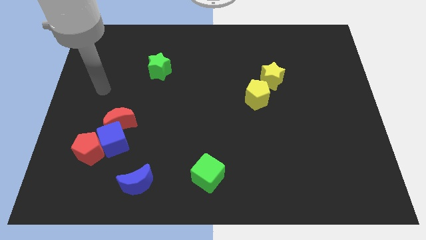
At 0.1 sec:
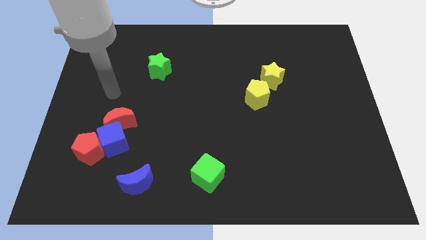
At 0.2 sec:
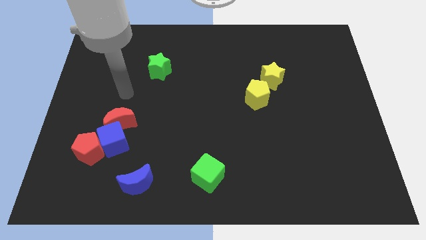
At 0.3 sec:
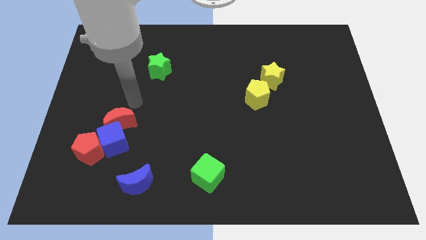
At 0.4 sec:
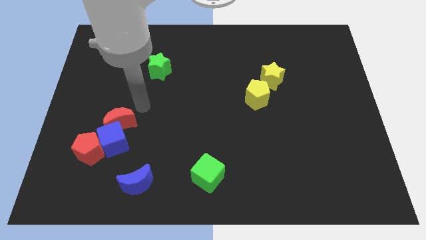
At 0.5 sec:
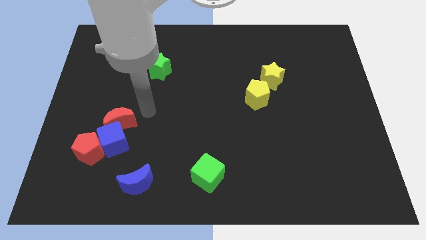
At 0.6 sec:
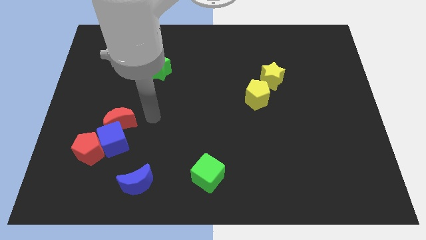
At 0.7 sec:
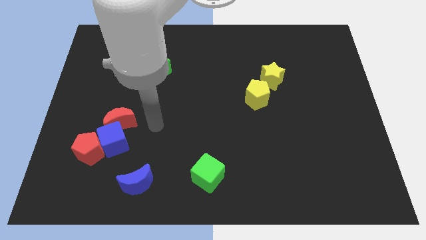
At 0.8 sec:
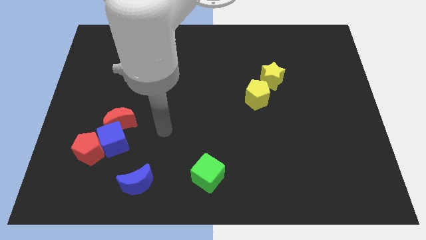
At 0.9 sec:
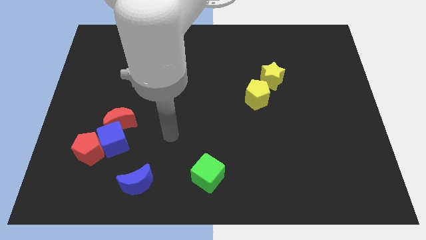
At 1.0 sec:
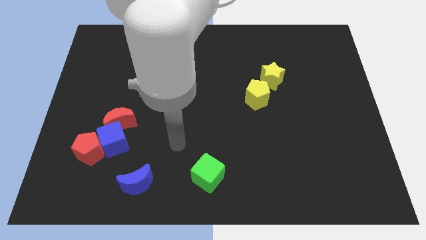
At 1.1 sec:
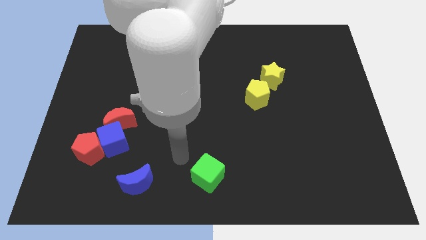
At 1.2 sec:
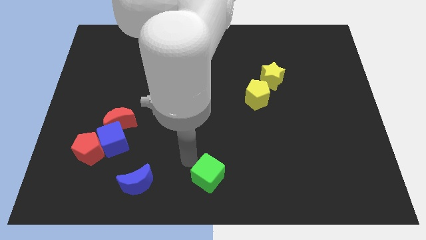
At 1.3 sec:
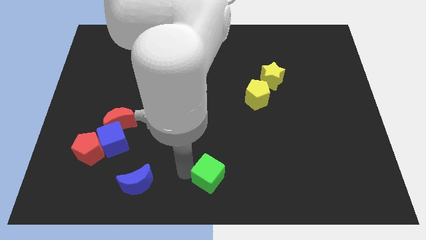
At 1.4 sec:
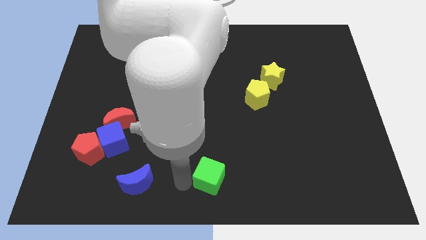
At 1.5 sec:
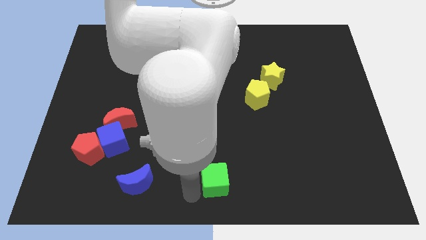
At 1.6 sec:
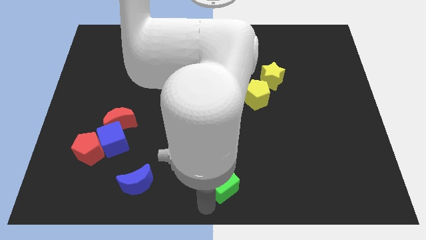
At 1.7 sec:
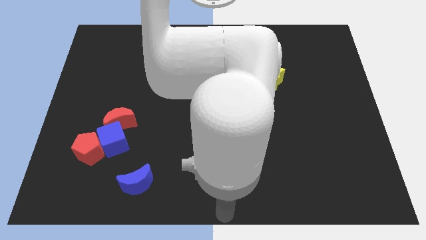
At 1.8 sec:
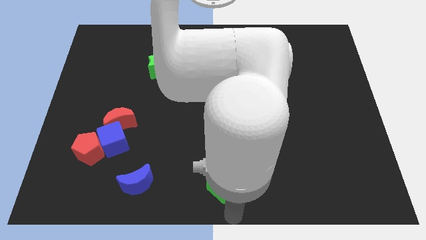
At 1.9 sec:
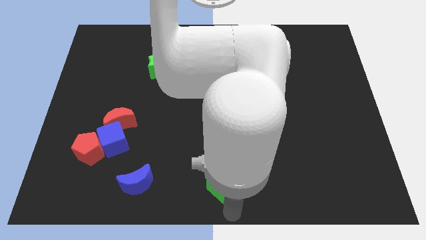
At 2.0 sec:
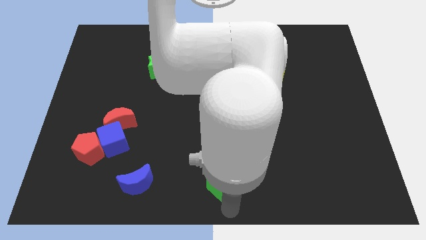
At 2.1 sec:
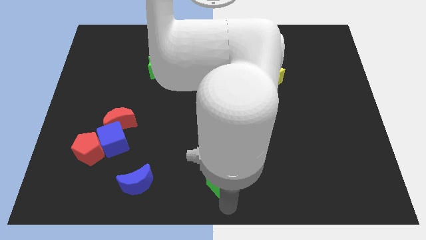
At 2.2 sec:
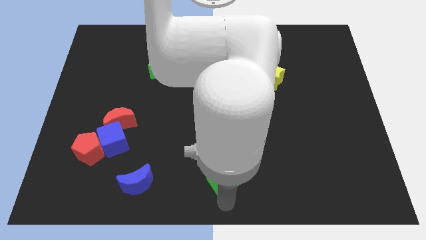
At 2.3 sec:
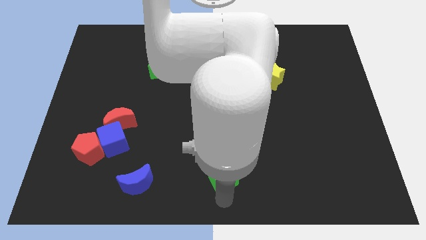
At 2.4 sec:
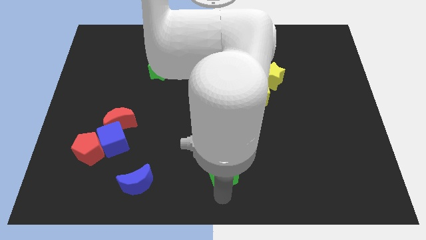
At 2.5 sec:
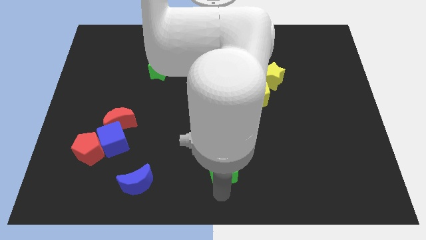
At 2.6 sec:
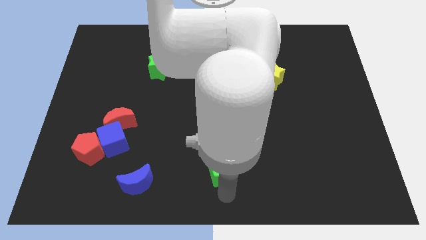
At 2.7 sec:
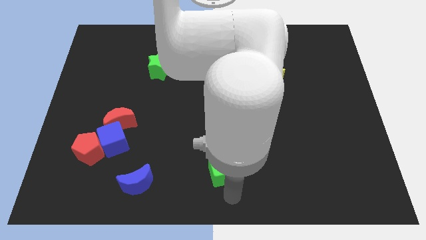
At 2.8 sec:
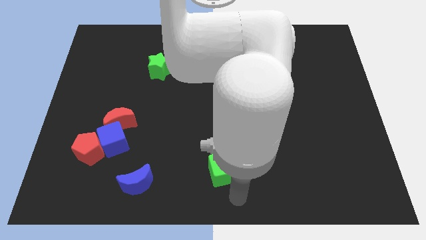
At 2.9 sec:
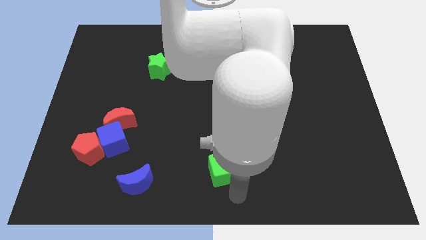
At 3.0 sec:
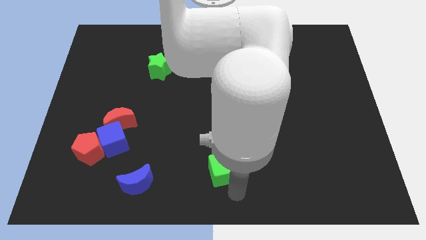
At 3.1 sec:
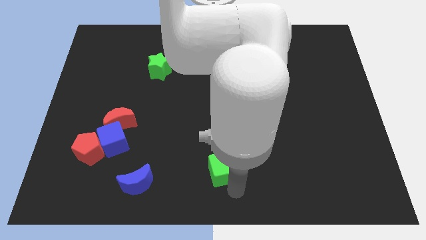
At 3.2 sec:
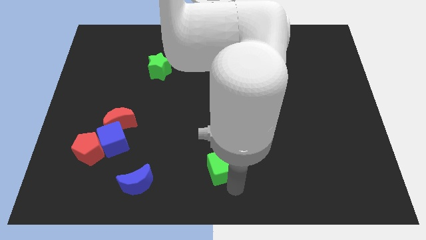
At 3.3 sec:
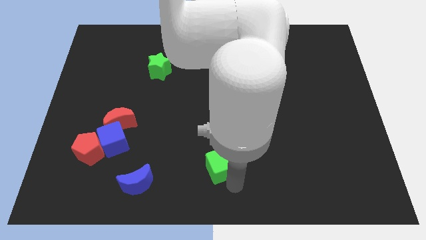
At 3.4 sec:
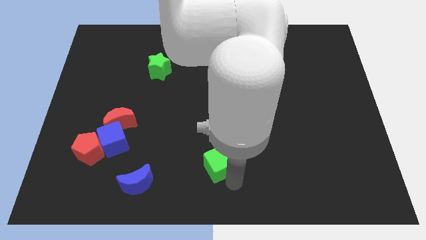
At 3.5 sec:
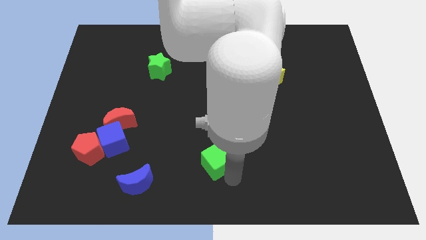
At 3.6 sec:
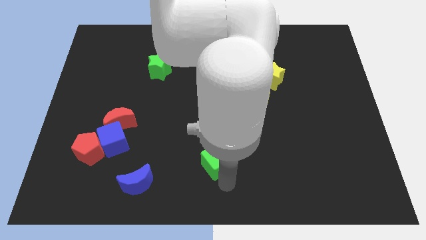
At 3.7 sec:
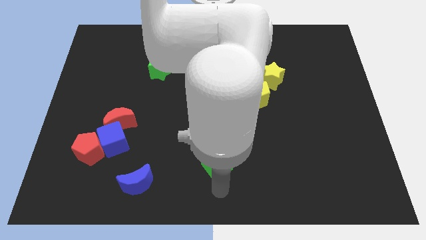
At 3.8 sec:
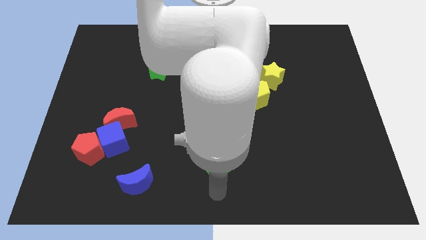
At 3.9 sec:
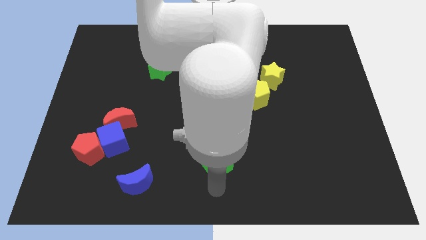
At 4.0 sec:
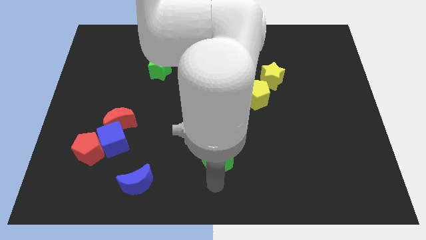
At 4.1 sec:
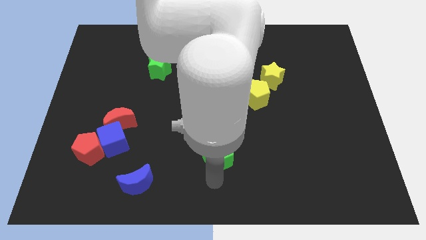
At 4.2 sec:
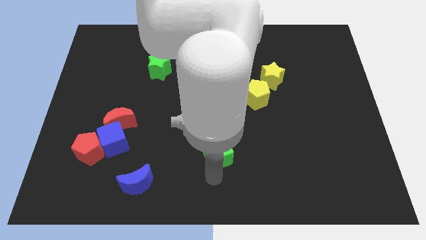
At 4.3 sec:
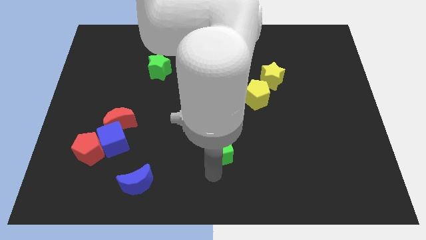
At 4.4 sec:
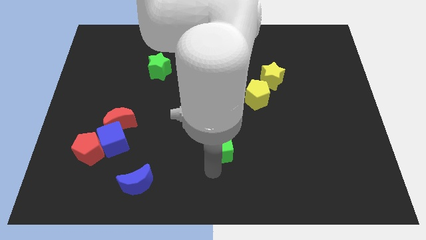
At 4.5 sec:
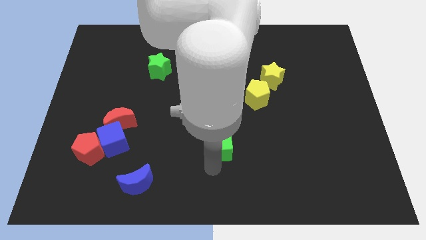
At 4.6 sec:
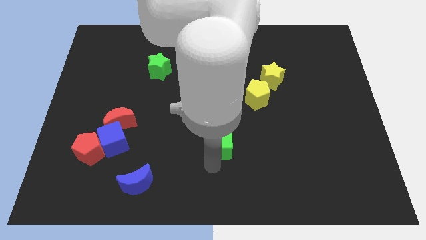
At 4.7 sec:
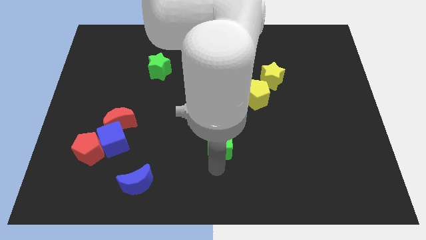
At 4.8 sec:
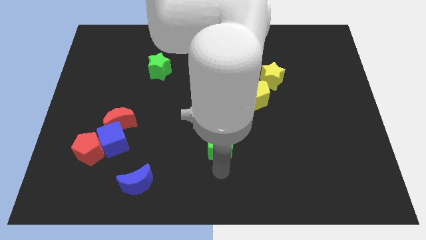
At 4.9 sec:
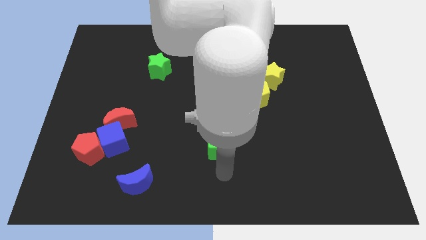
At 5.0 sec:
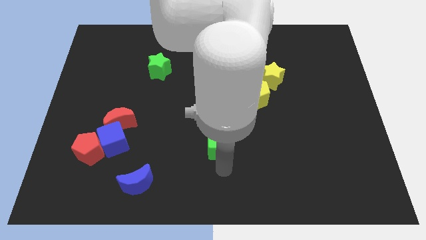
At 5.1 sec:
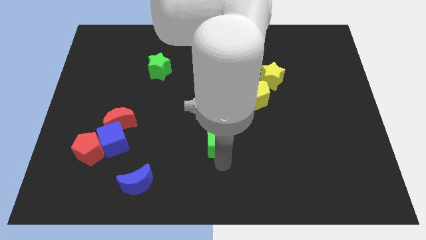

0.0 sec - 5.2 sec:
move the green cube to the middle

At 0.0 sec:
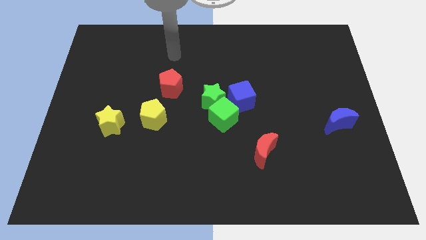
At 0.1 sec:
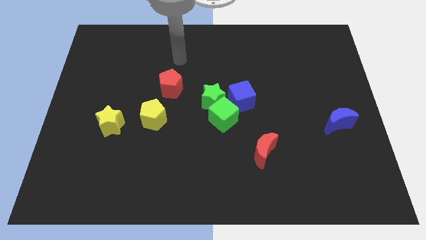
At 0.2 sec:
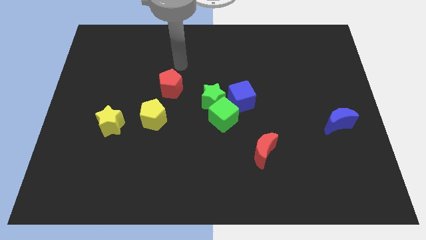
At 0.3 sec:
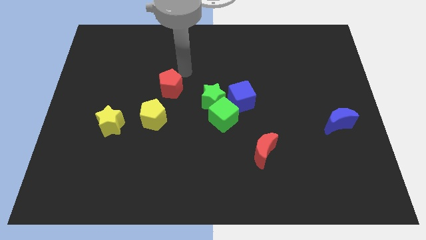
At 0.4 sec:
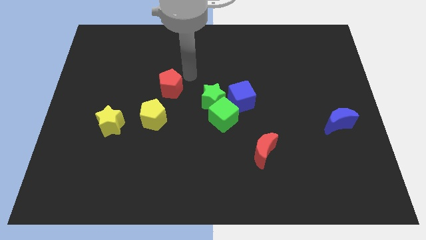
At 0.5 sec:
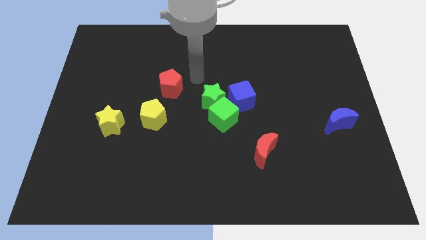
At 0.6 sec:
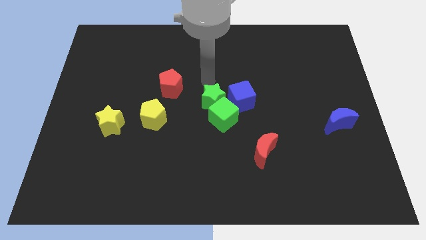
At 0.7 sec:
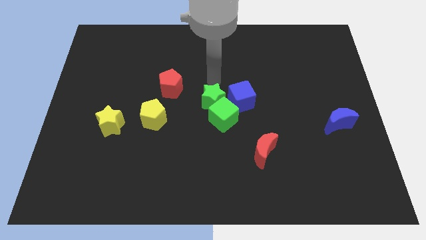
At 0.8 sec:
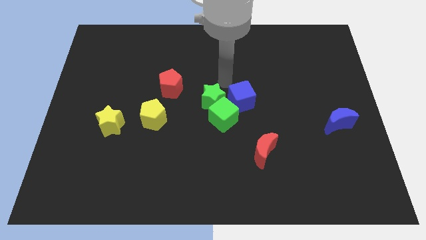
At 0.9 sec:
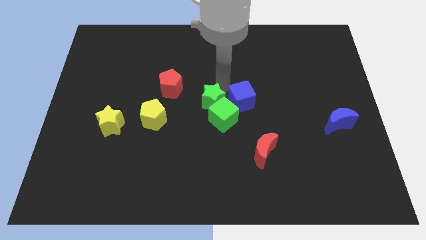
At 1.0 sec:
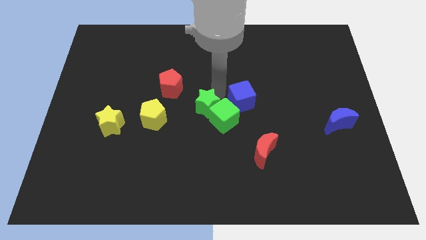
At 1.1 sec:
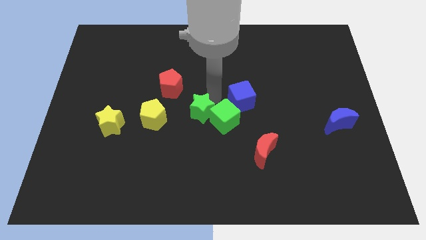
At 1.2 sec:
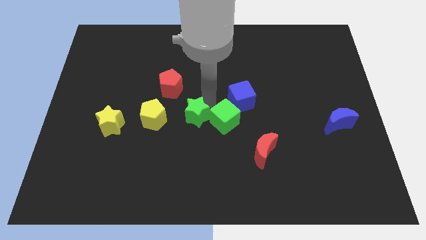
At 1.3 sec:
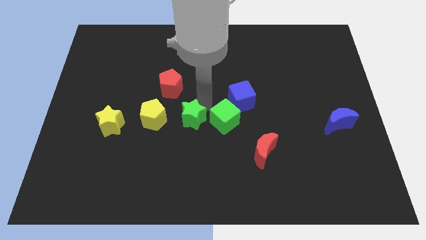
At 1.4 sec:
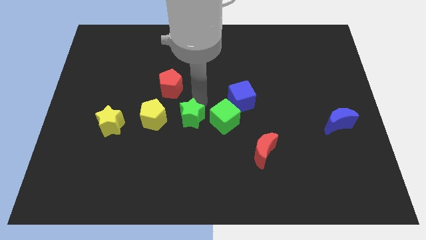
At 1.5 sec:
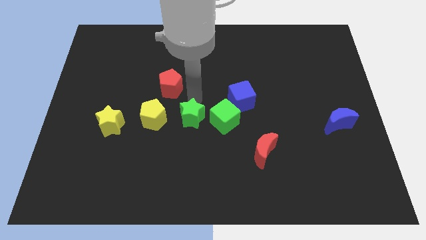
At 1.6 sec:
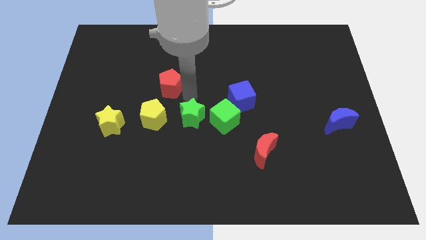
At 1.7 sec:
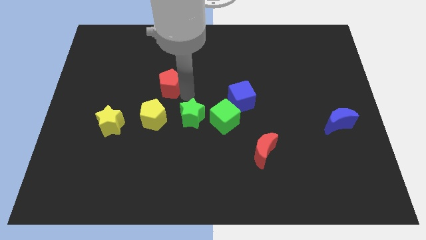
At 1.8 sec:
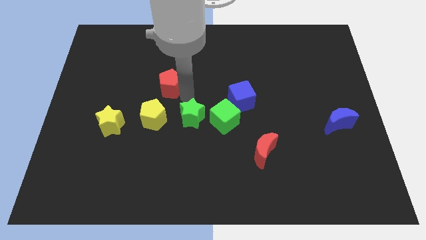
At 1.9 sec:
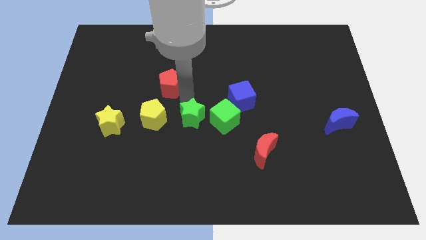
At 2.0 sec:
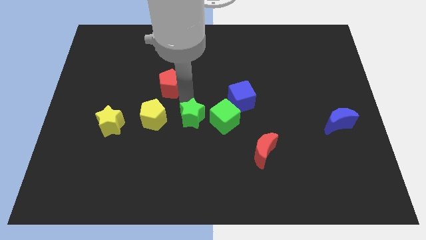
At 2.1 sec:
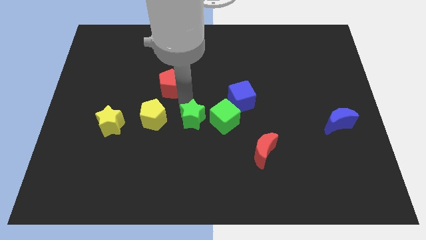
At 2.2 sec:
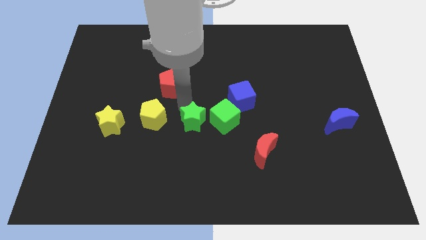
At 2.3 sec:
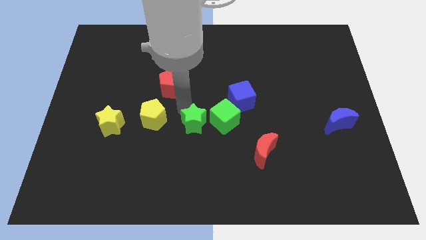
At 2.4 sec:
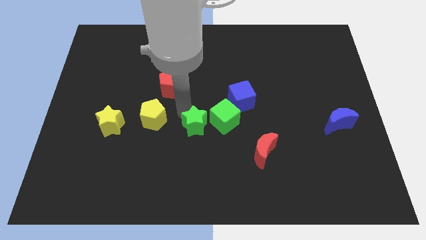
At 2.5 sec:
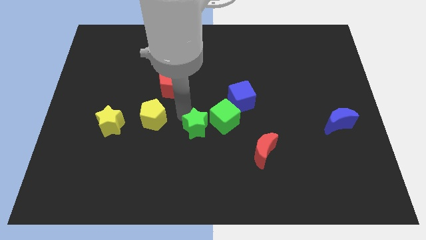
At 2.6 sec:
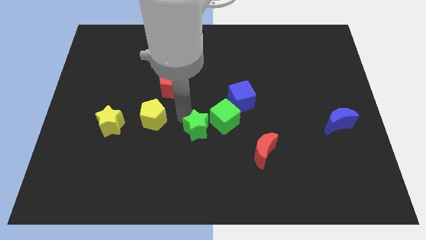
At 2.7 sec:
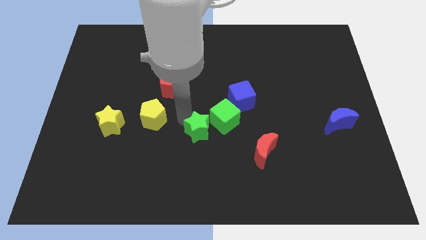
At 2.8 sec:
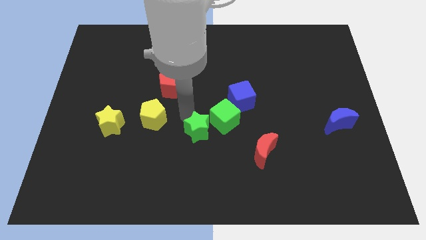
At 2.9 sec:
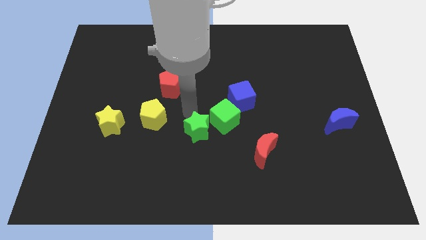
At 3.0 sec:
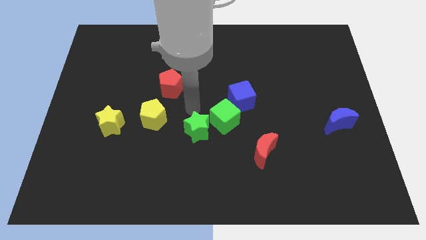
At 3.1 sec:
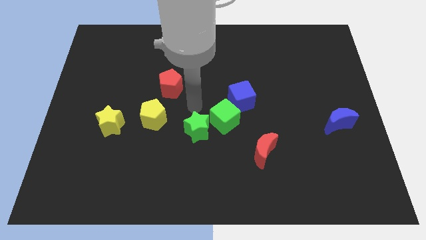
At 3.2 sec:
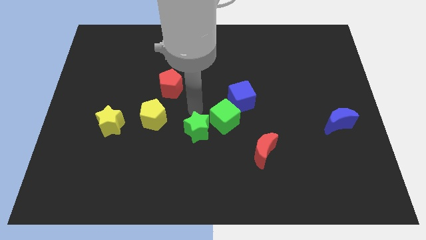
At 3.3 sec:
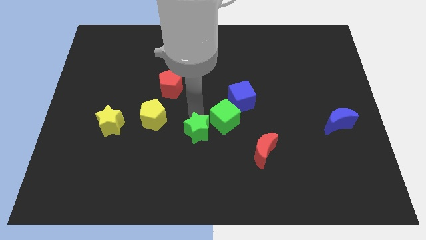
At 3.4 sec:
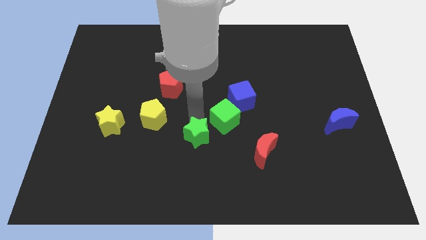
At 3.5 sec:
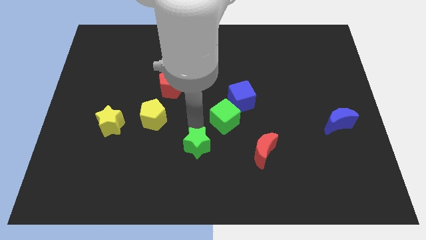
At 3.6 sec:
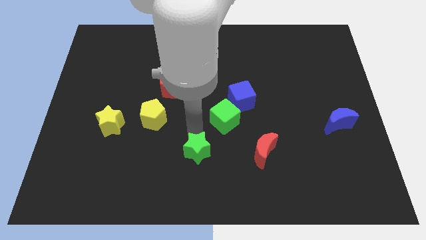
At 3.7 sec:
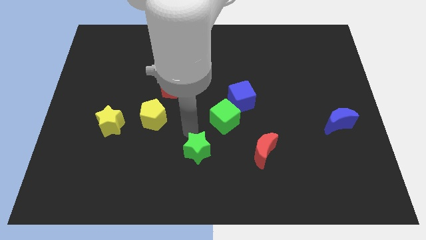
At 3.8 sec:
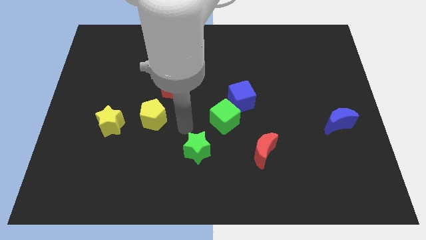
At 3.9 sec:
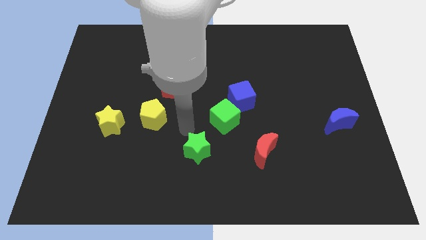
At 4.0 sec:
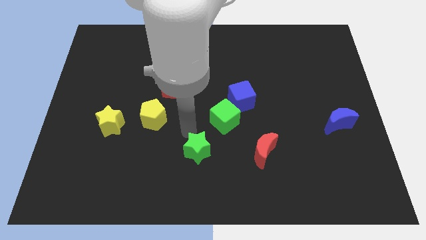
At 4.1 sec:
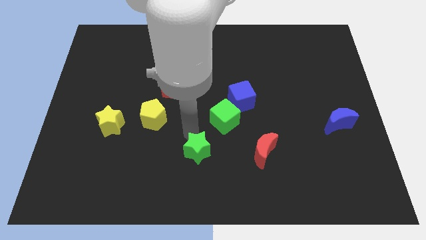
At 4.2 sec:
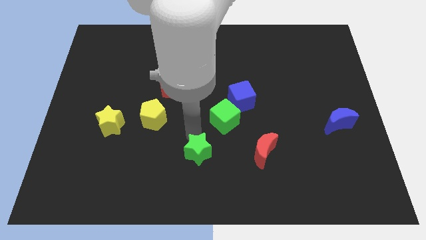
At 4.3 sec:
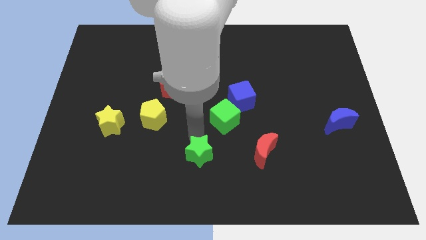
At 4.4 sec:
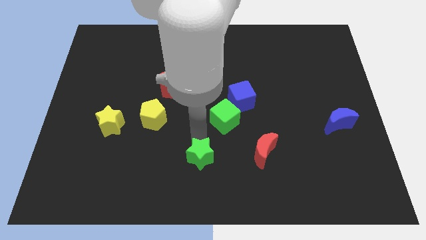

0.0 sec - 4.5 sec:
put the green star to the bottom side
